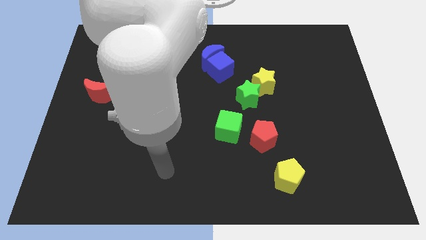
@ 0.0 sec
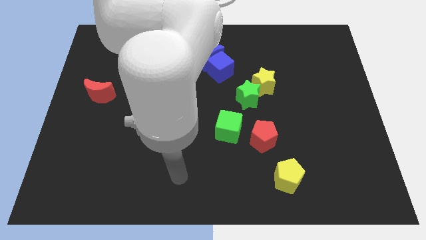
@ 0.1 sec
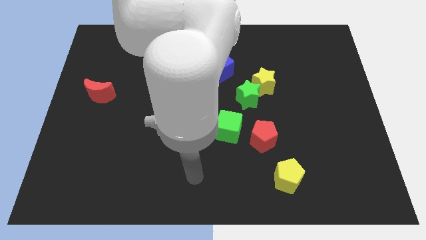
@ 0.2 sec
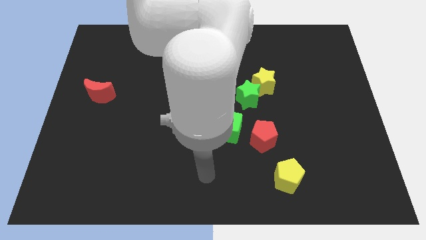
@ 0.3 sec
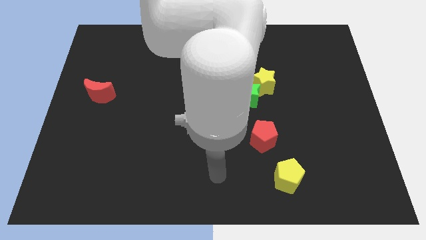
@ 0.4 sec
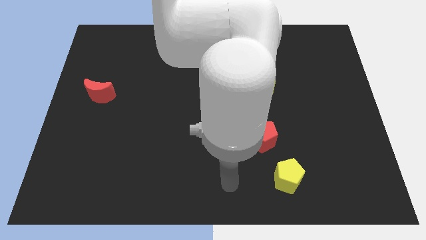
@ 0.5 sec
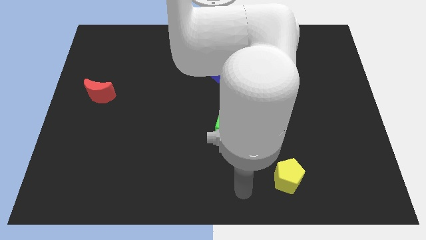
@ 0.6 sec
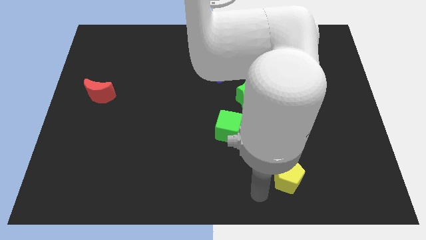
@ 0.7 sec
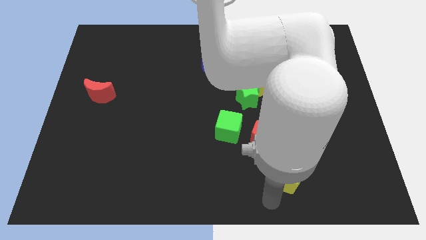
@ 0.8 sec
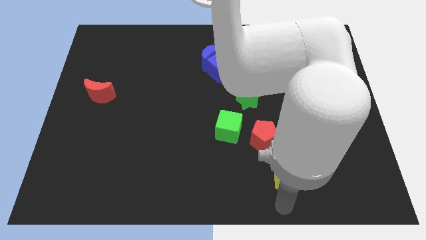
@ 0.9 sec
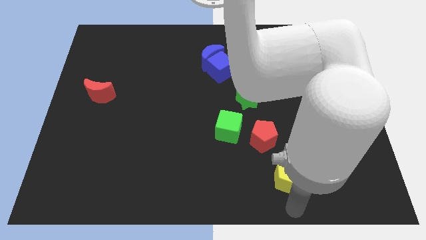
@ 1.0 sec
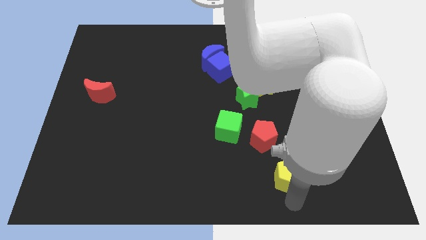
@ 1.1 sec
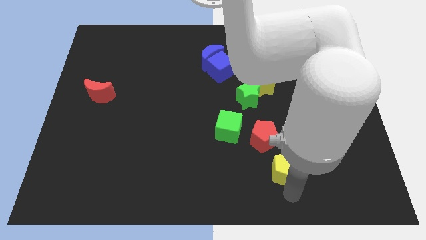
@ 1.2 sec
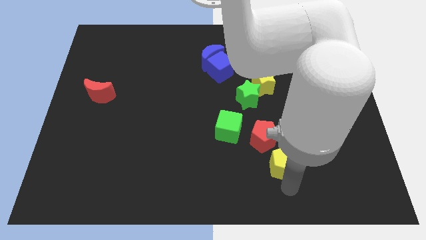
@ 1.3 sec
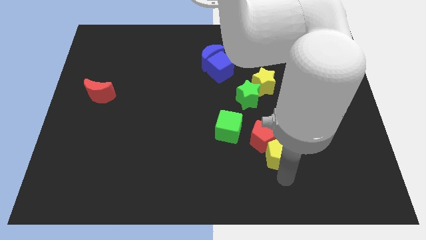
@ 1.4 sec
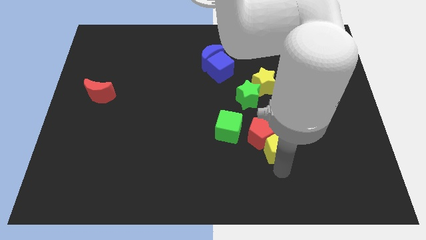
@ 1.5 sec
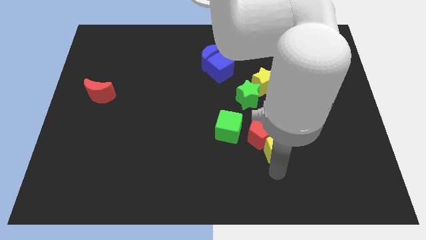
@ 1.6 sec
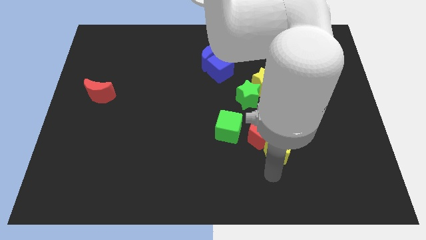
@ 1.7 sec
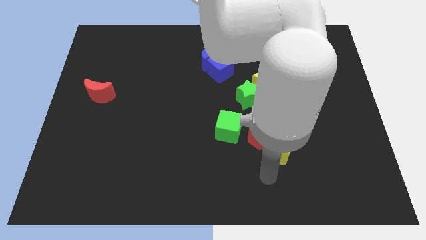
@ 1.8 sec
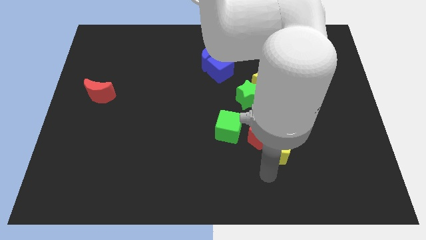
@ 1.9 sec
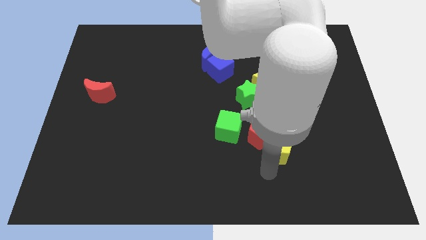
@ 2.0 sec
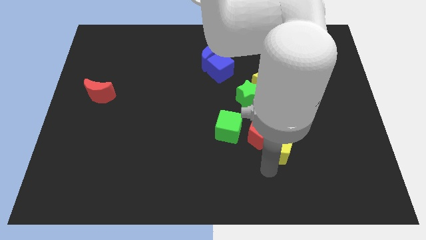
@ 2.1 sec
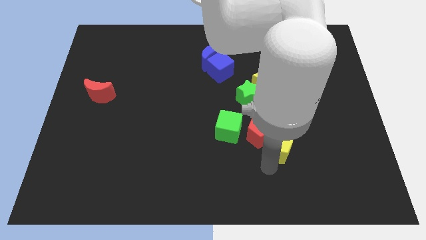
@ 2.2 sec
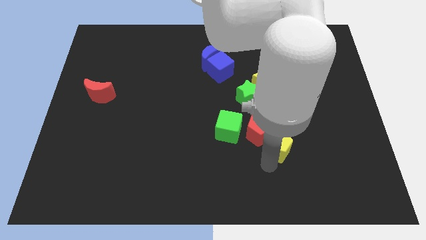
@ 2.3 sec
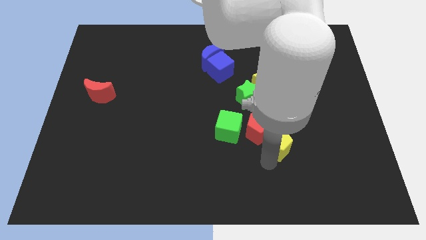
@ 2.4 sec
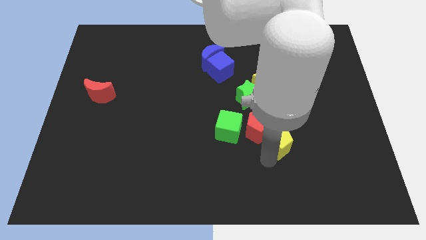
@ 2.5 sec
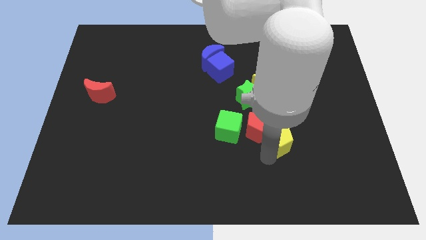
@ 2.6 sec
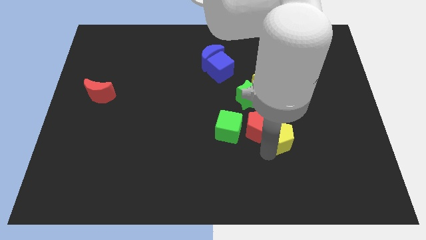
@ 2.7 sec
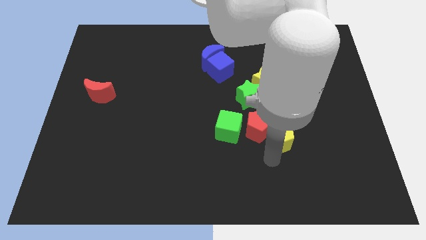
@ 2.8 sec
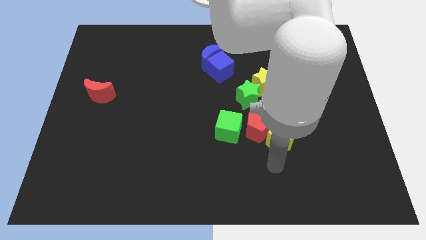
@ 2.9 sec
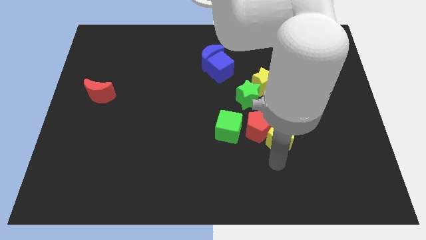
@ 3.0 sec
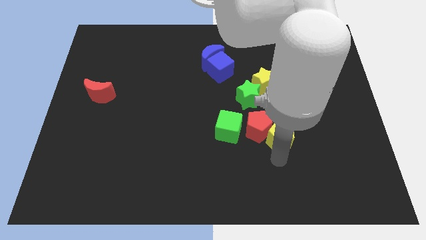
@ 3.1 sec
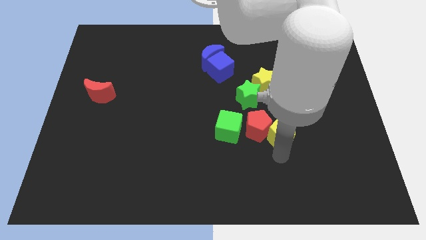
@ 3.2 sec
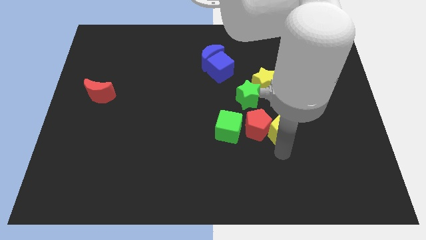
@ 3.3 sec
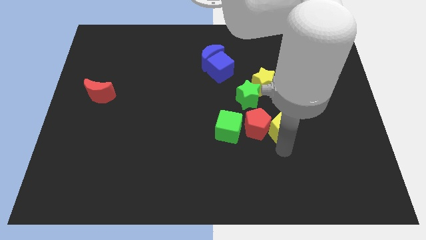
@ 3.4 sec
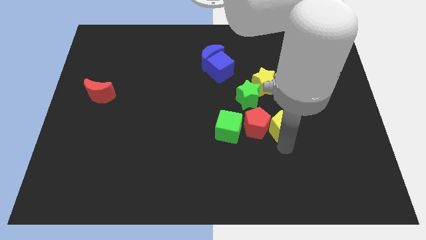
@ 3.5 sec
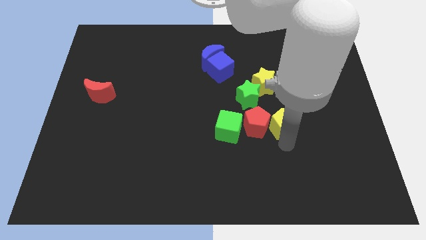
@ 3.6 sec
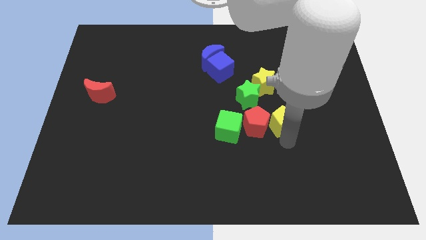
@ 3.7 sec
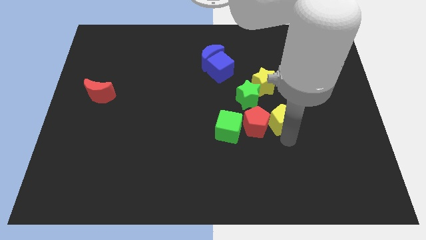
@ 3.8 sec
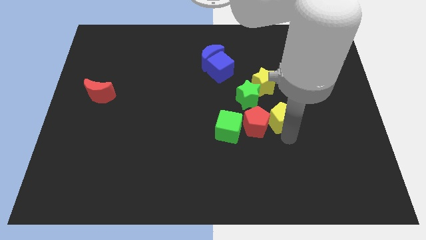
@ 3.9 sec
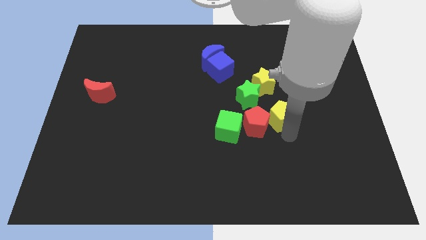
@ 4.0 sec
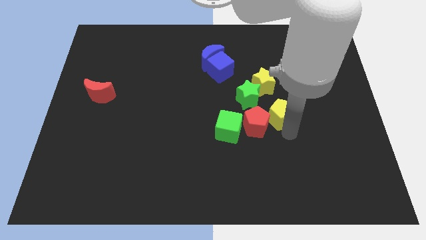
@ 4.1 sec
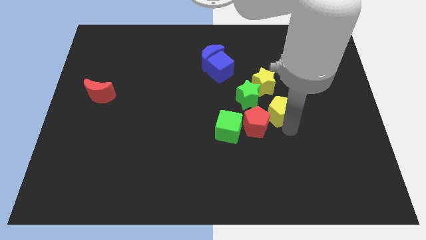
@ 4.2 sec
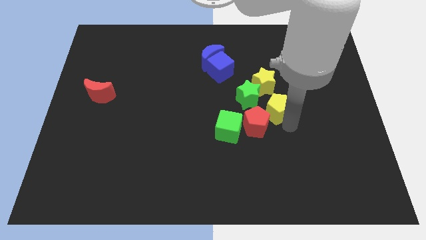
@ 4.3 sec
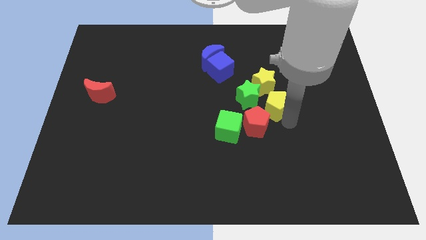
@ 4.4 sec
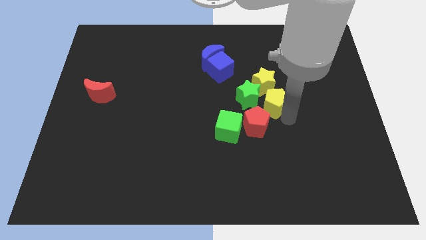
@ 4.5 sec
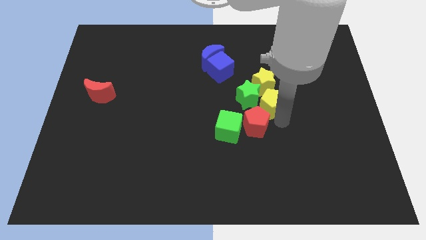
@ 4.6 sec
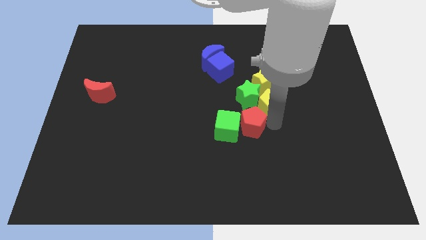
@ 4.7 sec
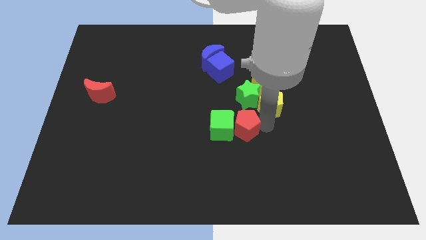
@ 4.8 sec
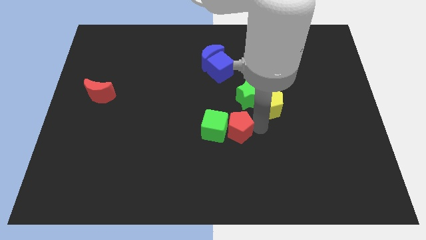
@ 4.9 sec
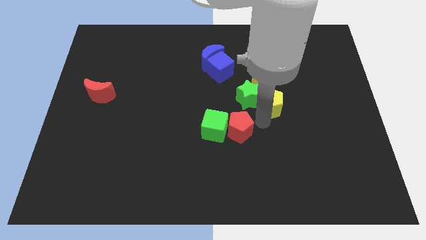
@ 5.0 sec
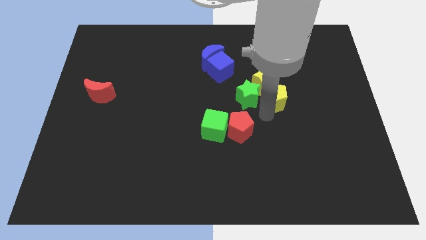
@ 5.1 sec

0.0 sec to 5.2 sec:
slide the yellow pentagon upwards

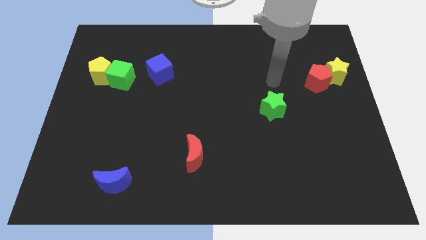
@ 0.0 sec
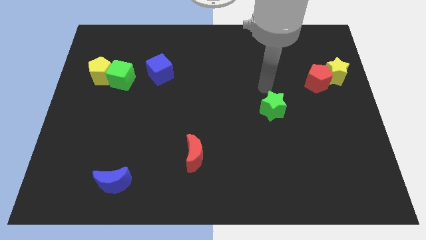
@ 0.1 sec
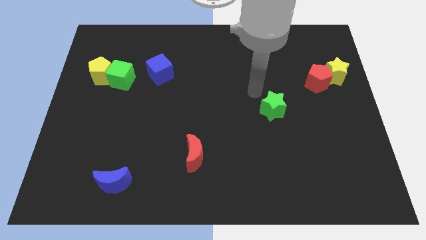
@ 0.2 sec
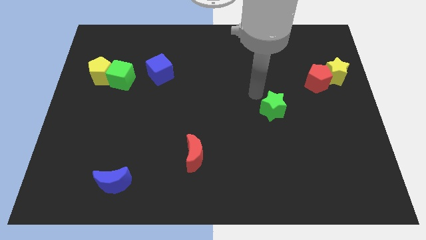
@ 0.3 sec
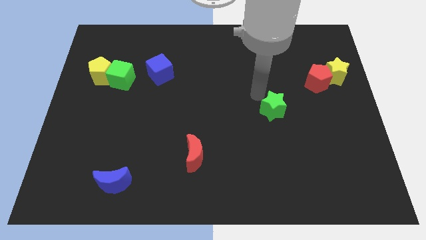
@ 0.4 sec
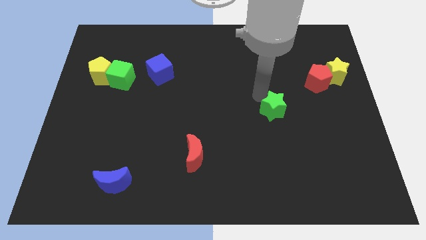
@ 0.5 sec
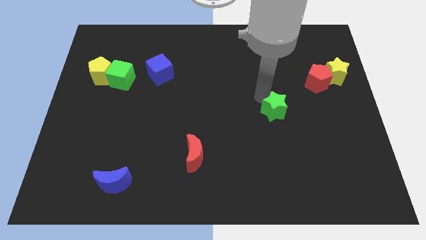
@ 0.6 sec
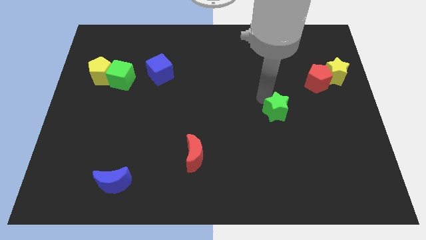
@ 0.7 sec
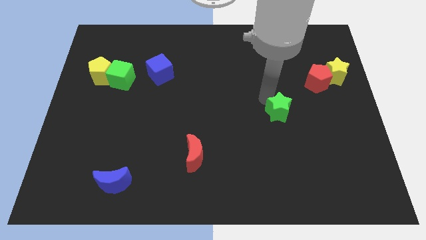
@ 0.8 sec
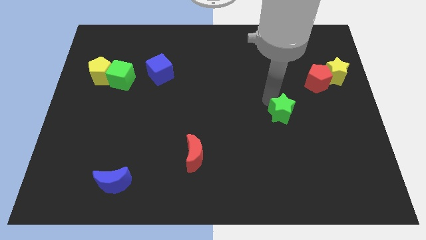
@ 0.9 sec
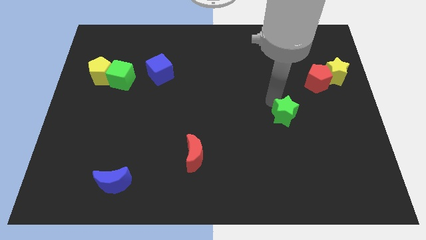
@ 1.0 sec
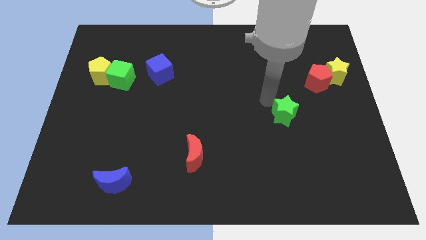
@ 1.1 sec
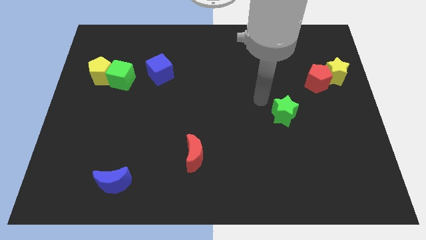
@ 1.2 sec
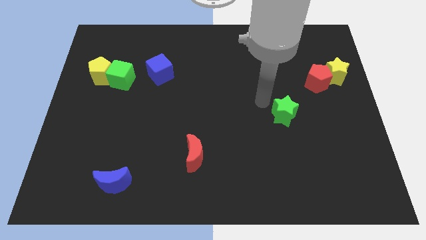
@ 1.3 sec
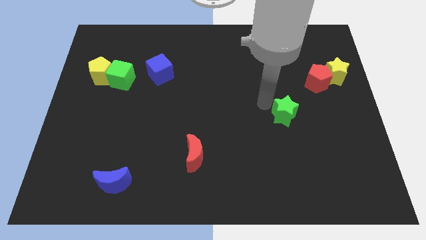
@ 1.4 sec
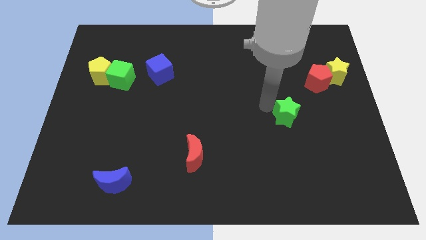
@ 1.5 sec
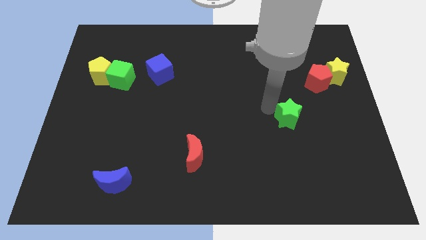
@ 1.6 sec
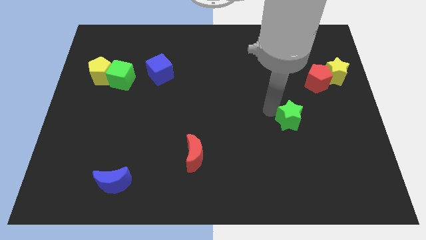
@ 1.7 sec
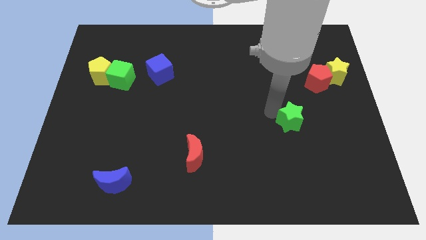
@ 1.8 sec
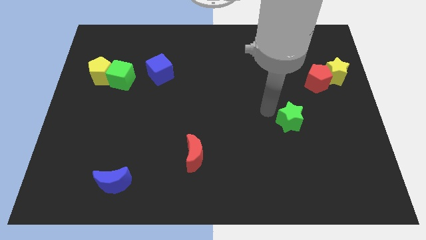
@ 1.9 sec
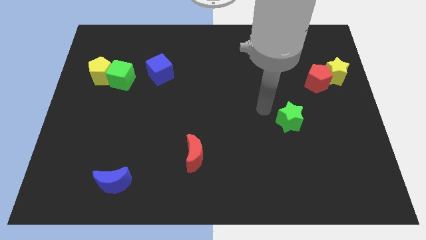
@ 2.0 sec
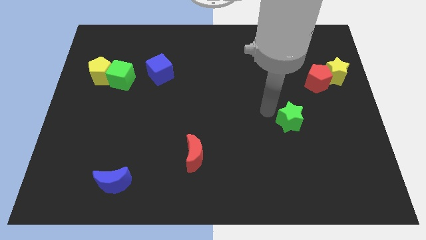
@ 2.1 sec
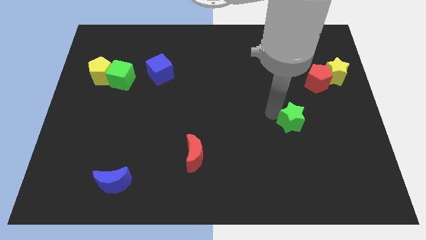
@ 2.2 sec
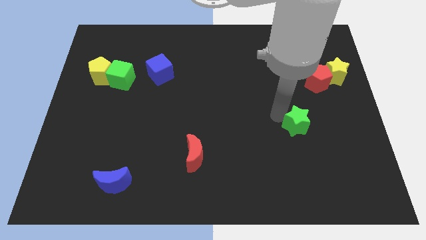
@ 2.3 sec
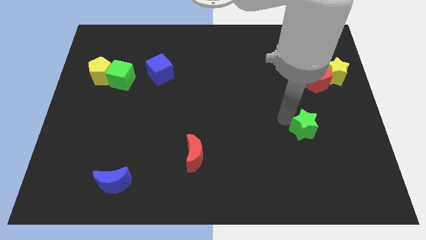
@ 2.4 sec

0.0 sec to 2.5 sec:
push the green star downwards and to the right diagonally a little bit
